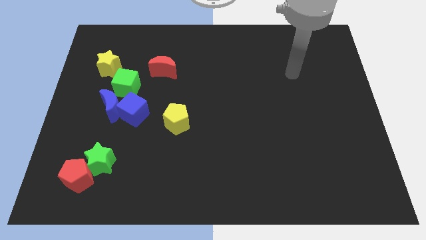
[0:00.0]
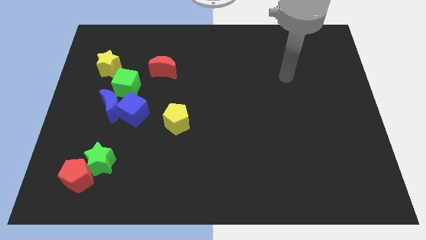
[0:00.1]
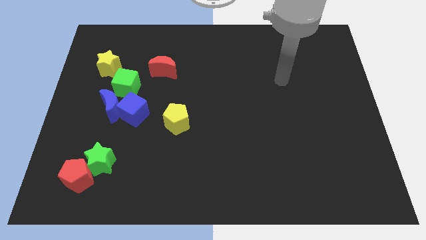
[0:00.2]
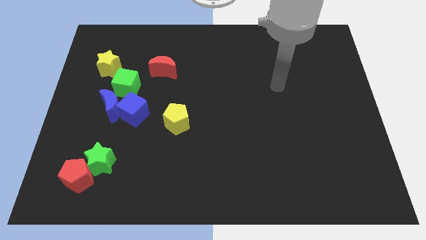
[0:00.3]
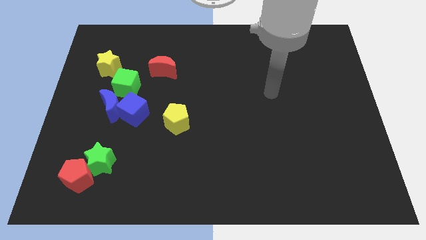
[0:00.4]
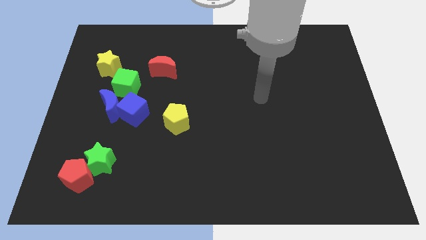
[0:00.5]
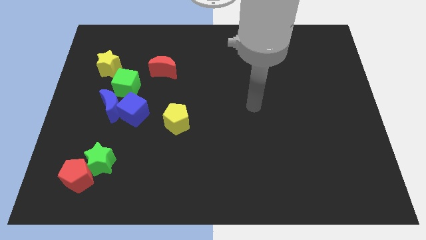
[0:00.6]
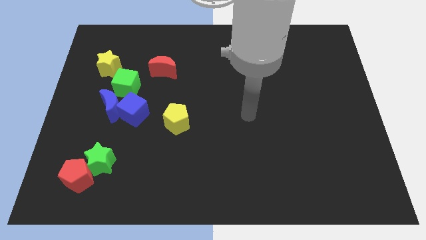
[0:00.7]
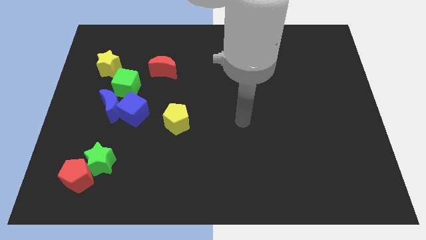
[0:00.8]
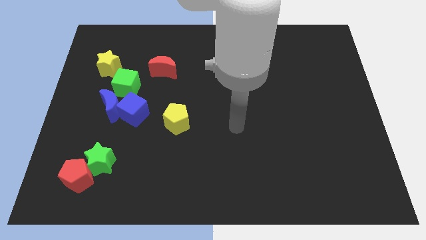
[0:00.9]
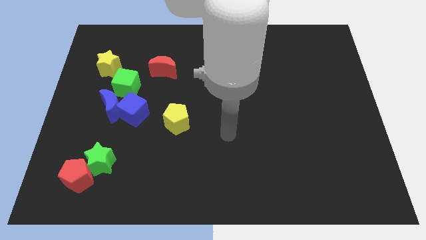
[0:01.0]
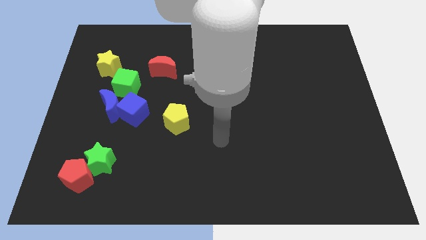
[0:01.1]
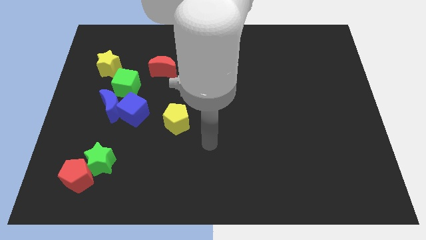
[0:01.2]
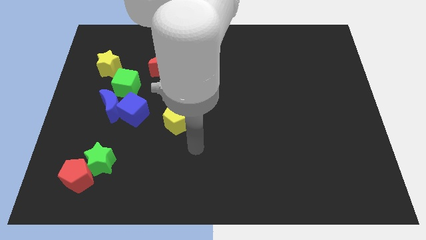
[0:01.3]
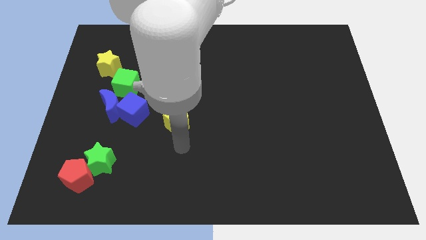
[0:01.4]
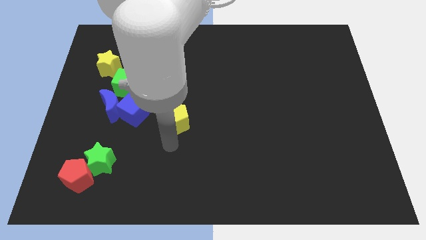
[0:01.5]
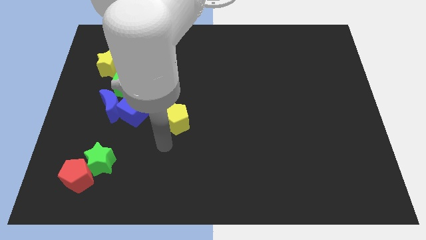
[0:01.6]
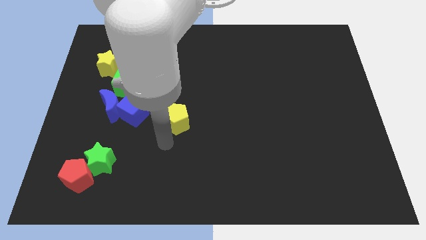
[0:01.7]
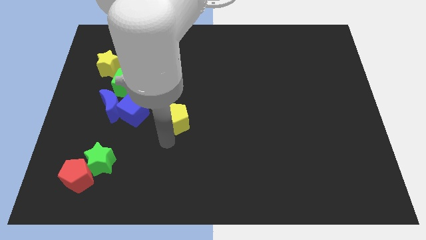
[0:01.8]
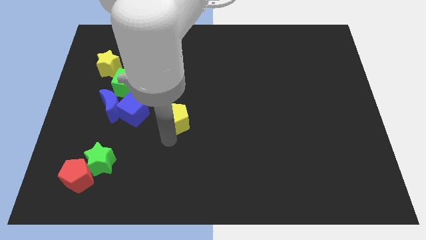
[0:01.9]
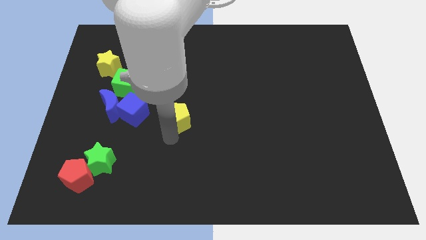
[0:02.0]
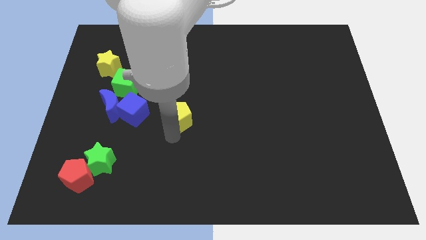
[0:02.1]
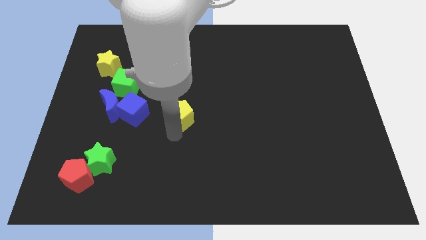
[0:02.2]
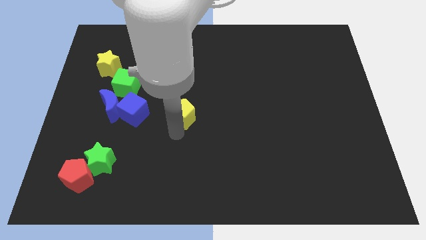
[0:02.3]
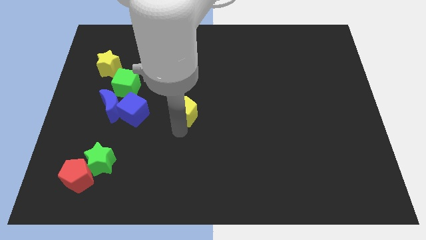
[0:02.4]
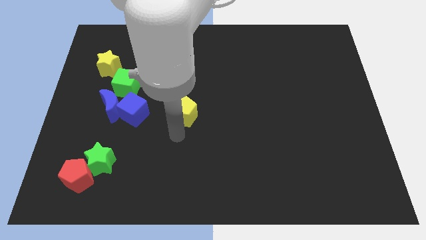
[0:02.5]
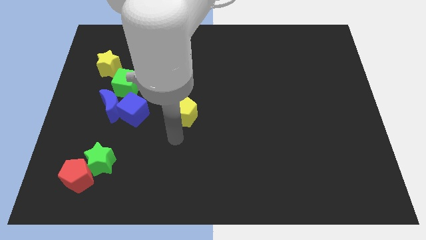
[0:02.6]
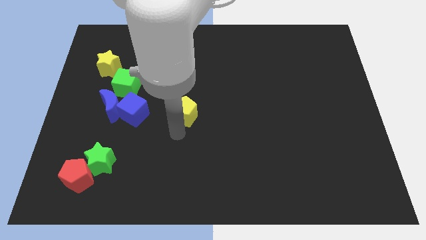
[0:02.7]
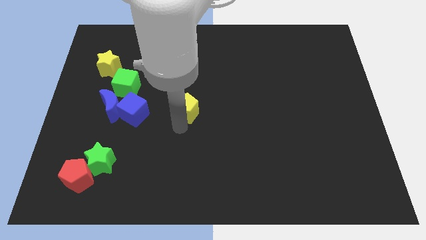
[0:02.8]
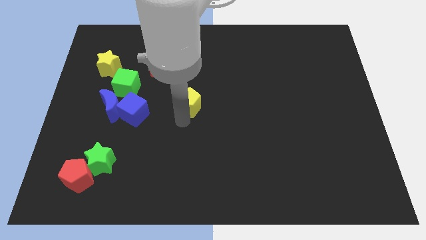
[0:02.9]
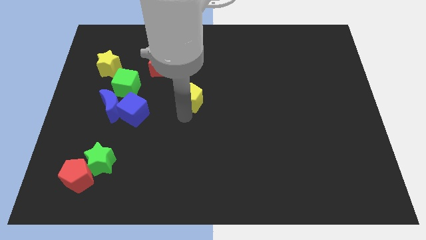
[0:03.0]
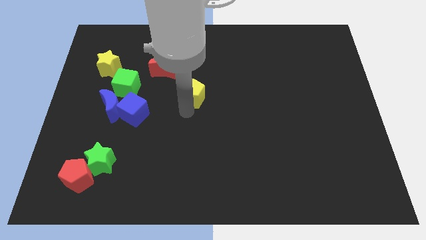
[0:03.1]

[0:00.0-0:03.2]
push the yellow pentagon diagonally upwards and to the right somewhat

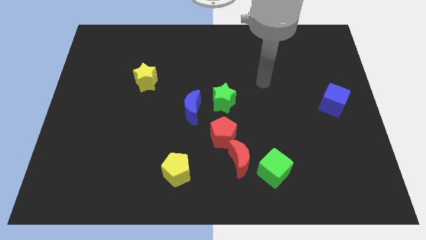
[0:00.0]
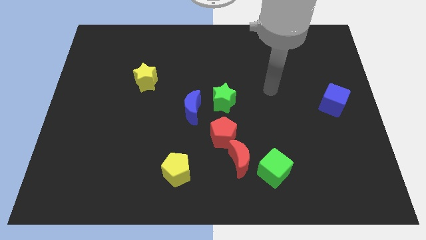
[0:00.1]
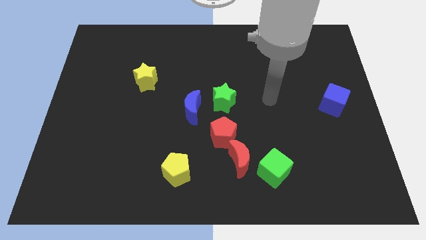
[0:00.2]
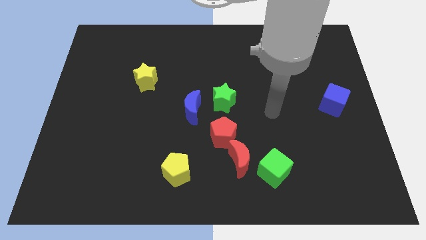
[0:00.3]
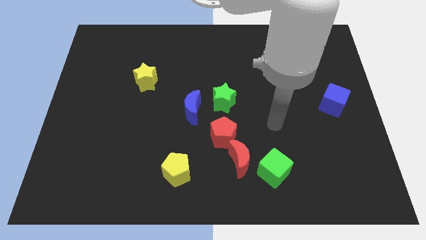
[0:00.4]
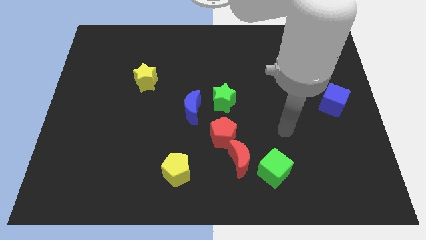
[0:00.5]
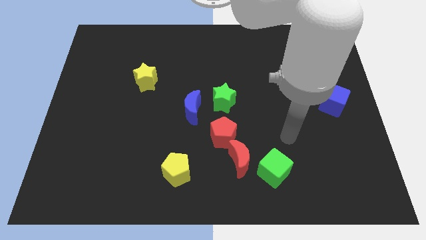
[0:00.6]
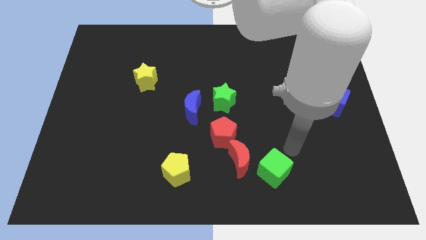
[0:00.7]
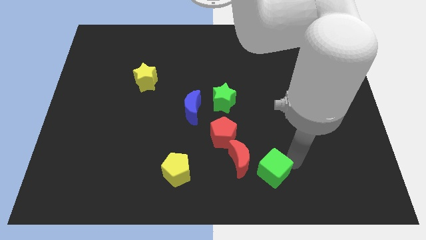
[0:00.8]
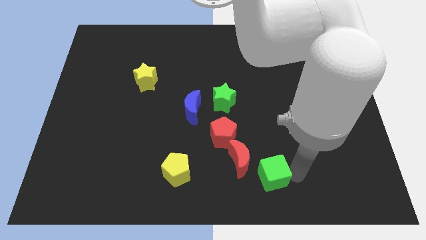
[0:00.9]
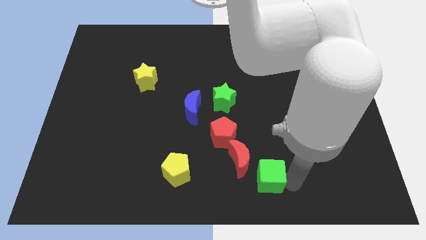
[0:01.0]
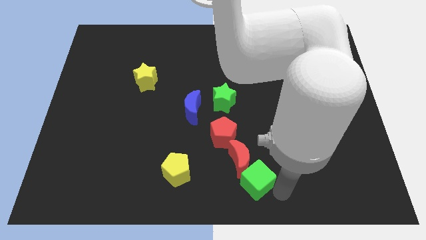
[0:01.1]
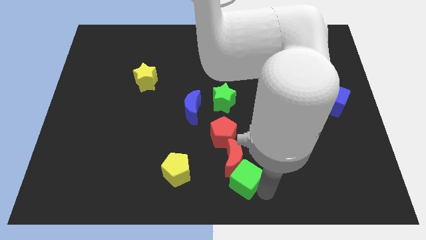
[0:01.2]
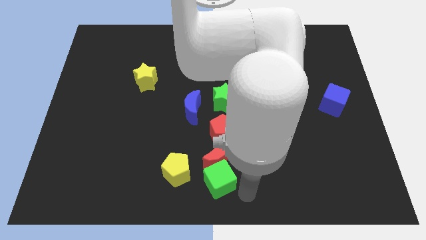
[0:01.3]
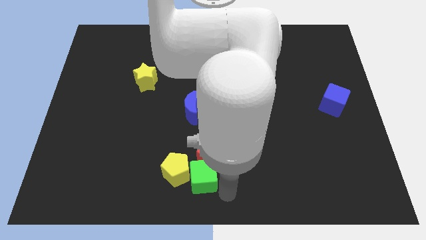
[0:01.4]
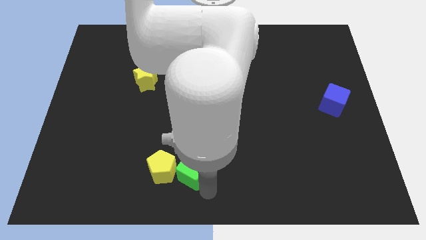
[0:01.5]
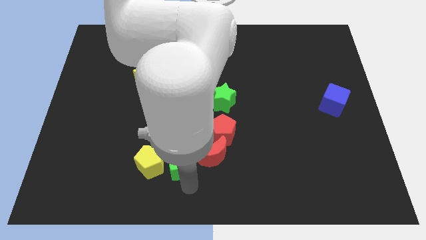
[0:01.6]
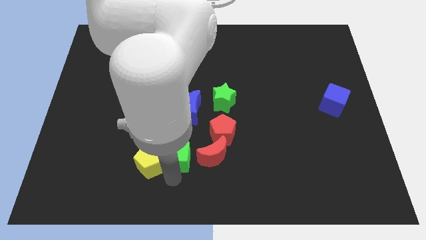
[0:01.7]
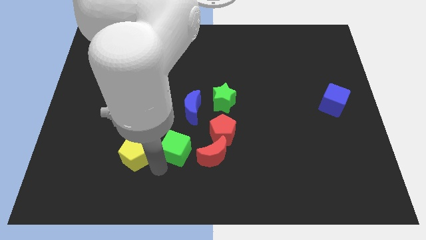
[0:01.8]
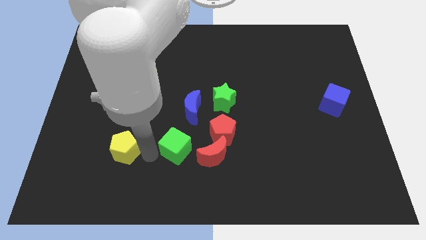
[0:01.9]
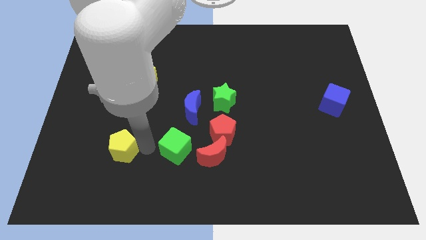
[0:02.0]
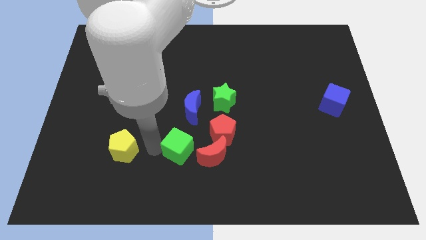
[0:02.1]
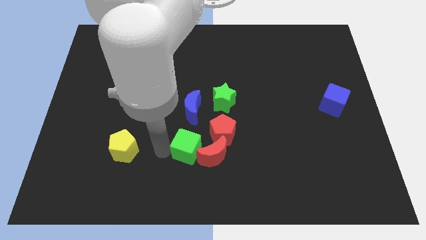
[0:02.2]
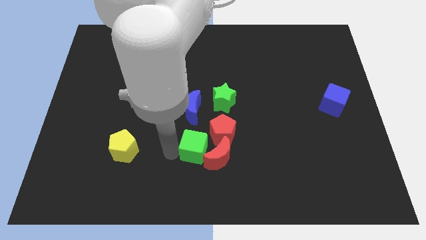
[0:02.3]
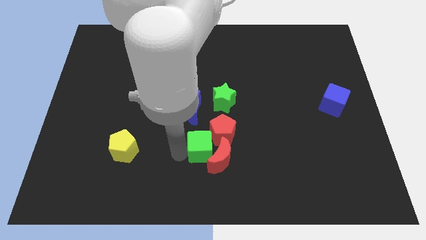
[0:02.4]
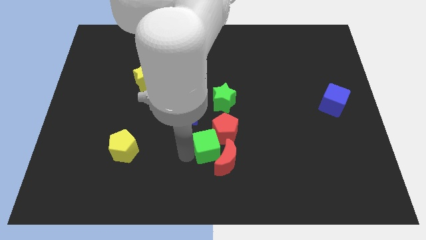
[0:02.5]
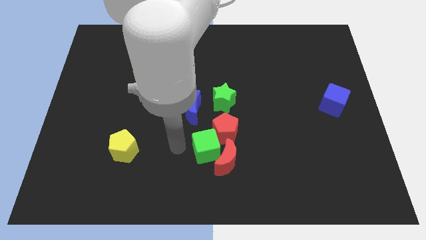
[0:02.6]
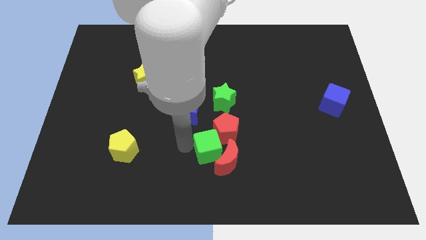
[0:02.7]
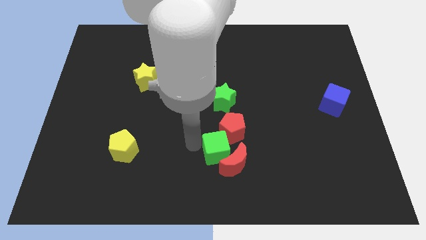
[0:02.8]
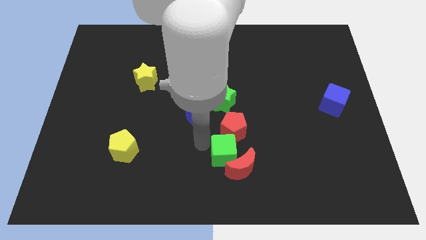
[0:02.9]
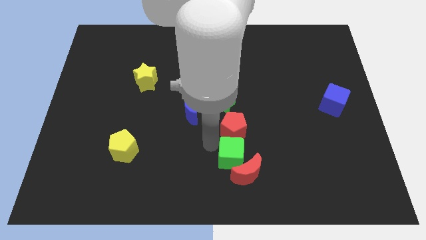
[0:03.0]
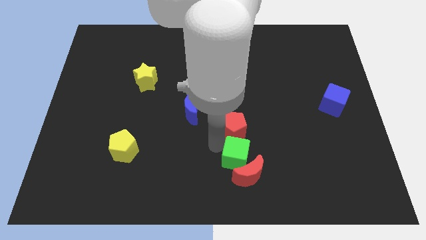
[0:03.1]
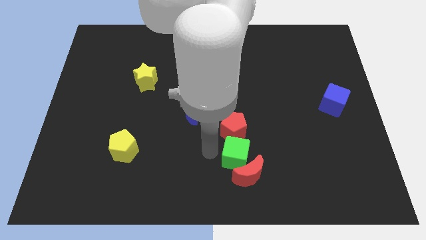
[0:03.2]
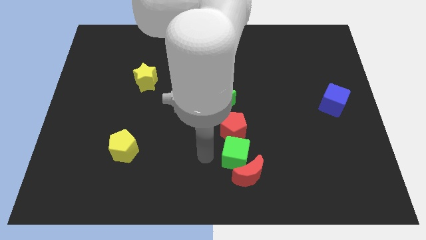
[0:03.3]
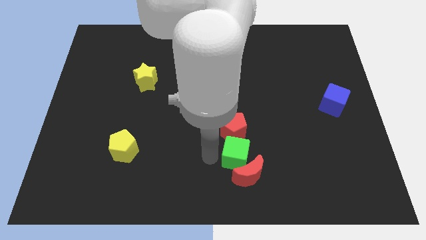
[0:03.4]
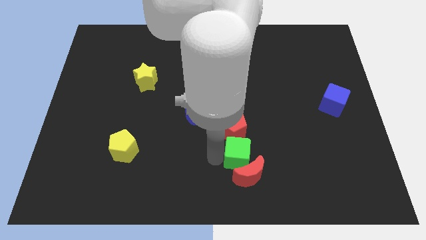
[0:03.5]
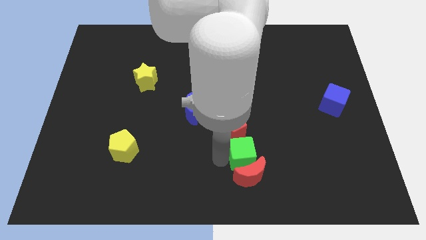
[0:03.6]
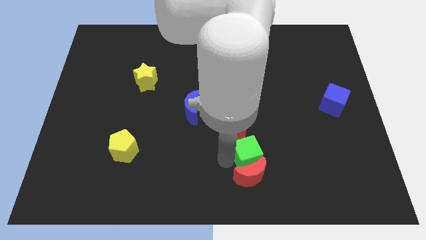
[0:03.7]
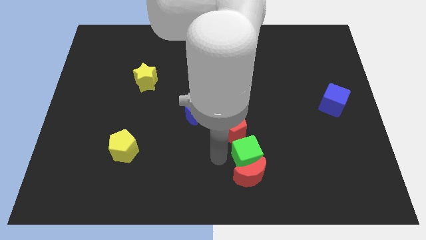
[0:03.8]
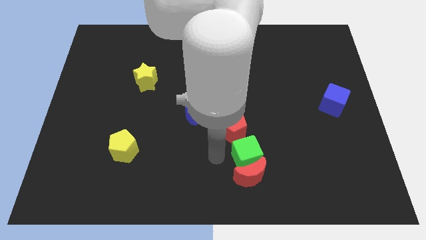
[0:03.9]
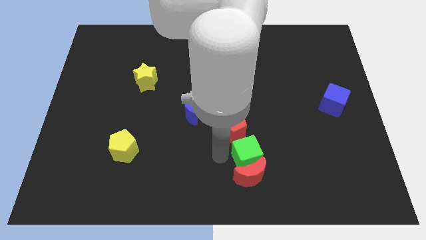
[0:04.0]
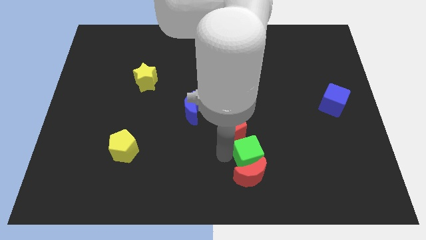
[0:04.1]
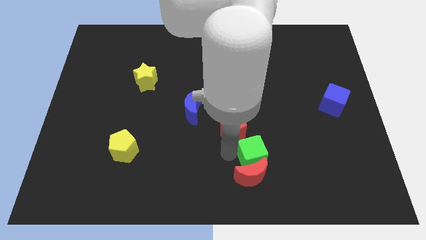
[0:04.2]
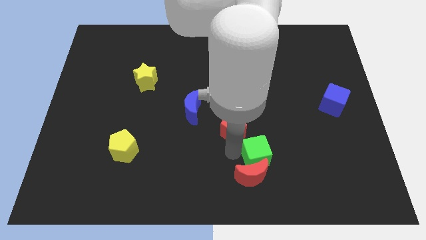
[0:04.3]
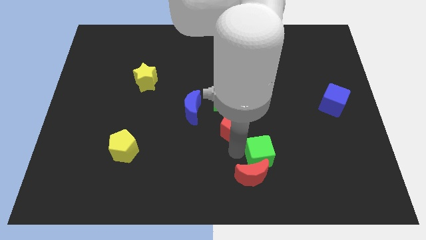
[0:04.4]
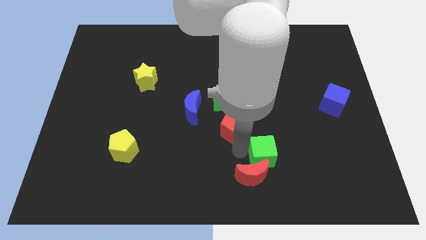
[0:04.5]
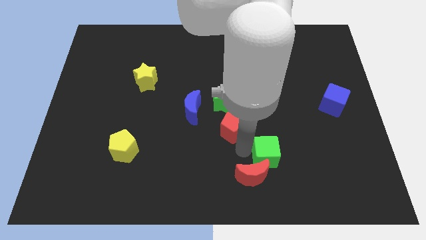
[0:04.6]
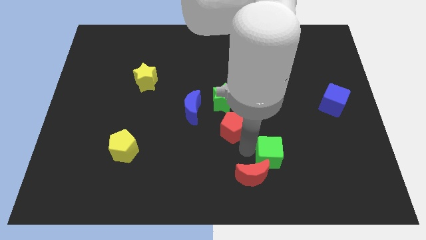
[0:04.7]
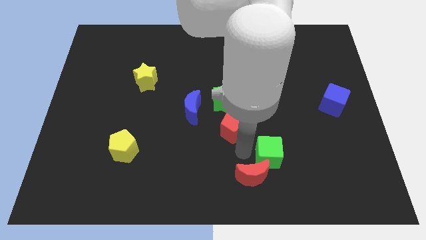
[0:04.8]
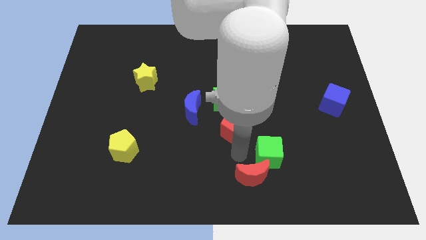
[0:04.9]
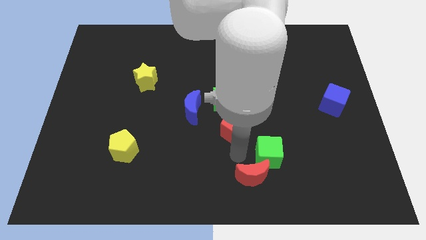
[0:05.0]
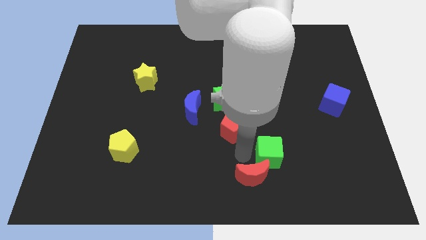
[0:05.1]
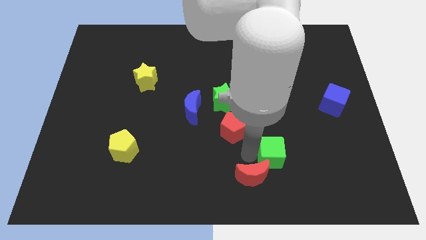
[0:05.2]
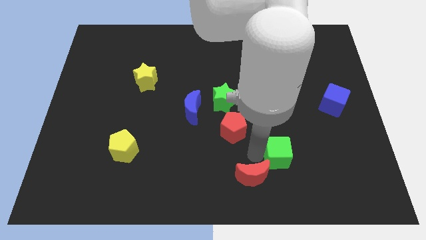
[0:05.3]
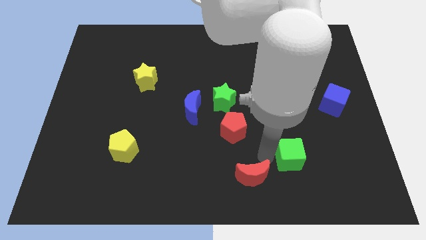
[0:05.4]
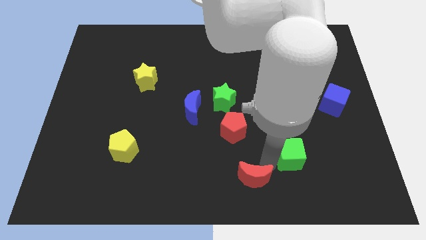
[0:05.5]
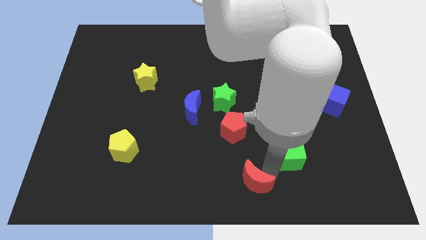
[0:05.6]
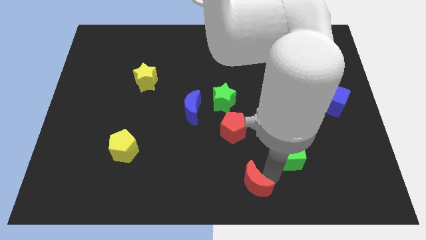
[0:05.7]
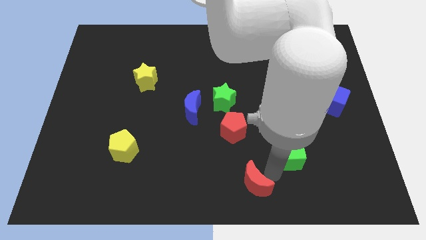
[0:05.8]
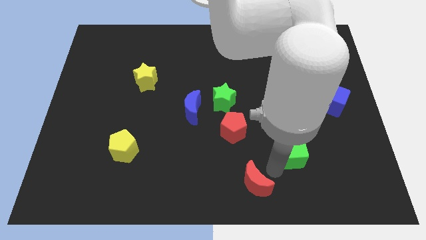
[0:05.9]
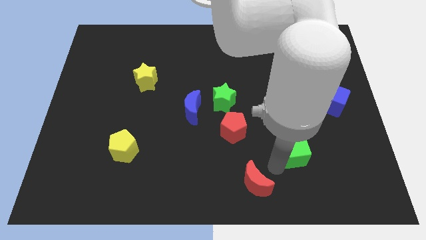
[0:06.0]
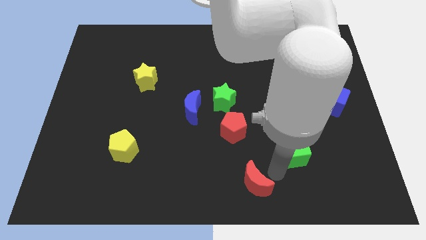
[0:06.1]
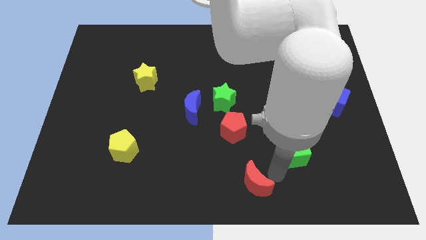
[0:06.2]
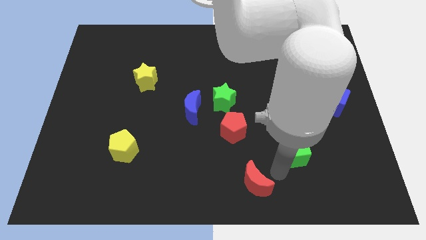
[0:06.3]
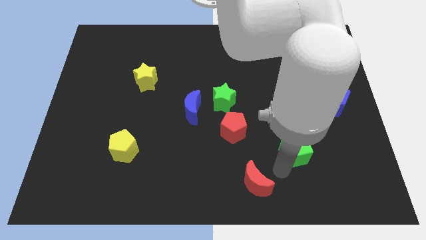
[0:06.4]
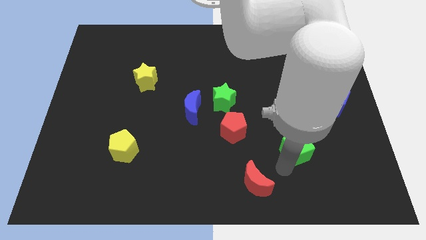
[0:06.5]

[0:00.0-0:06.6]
push the green cube a bit up and right diagonally
